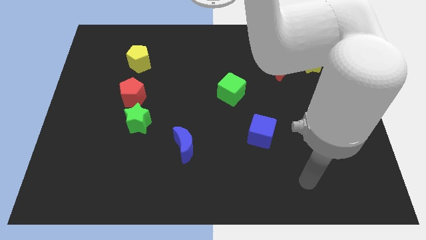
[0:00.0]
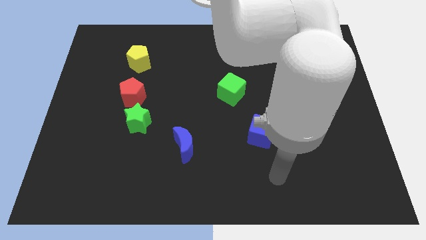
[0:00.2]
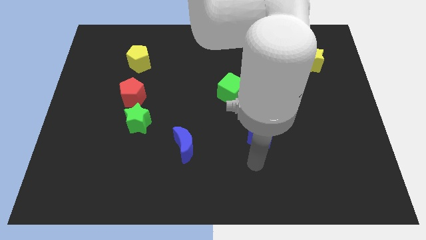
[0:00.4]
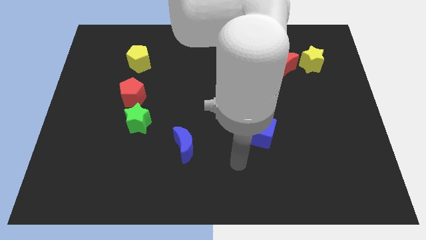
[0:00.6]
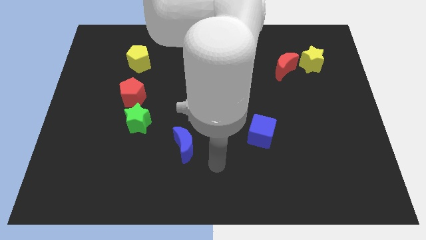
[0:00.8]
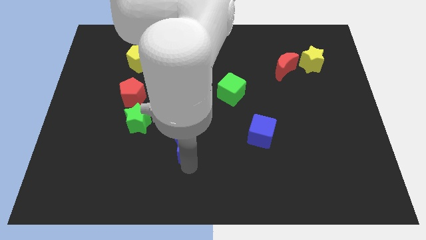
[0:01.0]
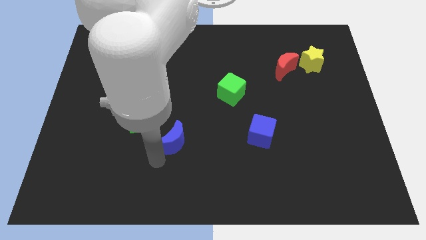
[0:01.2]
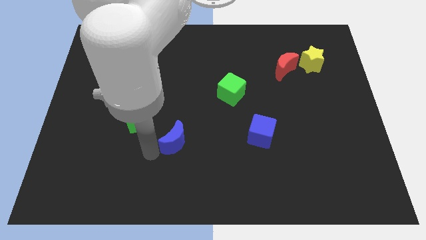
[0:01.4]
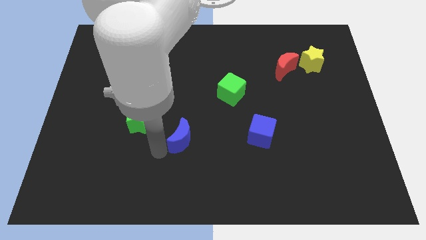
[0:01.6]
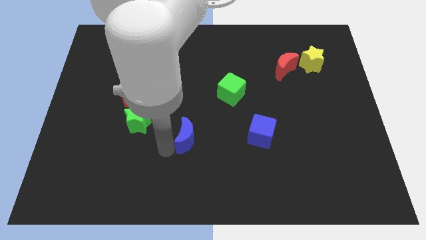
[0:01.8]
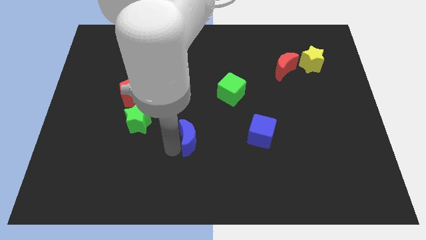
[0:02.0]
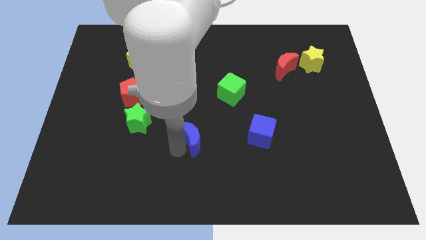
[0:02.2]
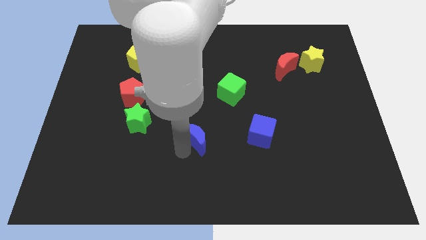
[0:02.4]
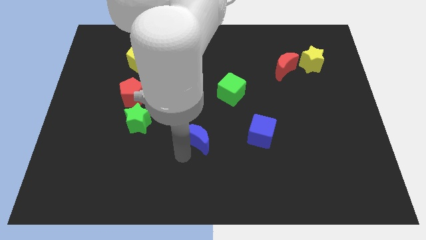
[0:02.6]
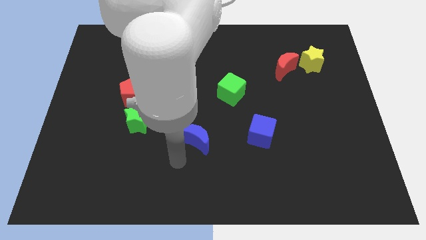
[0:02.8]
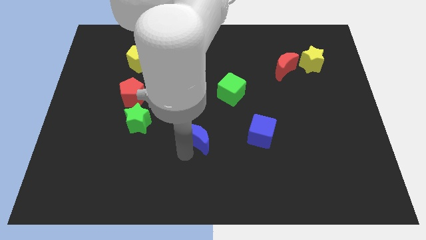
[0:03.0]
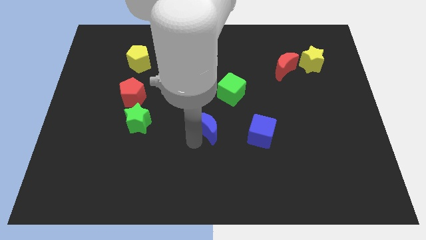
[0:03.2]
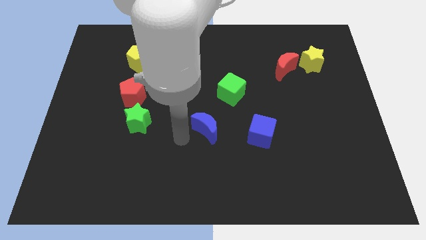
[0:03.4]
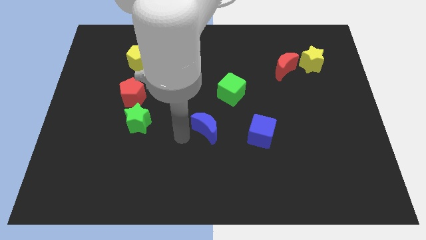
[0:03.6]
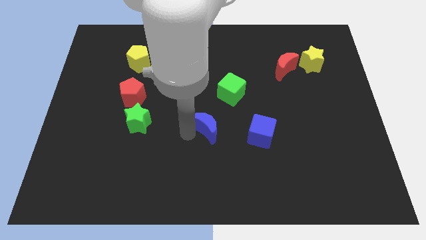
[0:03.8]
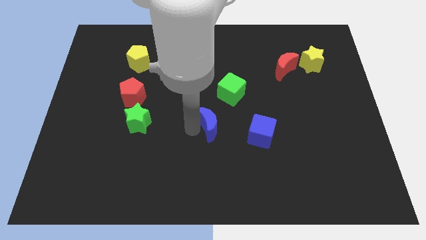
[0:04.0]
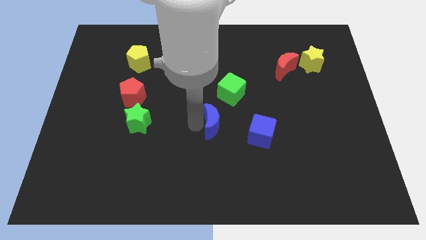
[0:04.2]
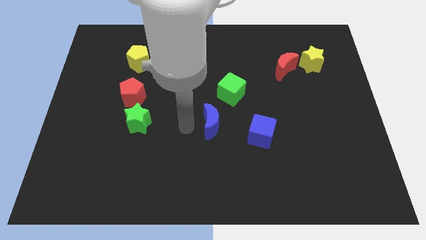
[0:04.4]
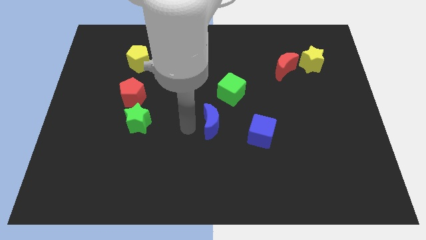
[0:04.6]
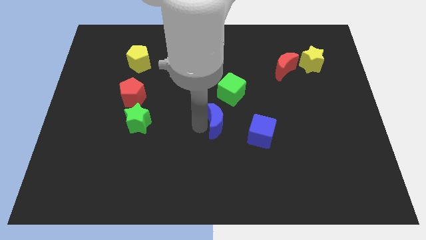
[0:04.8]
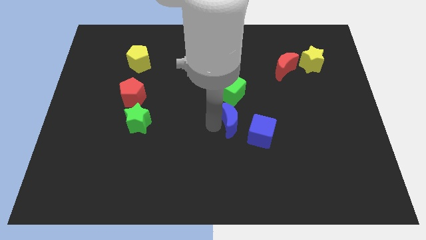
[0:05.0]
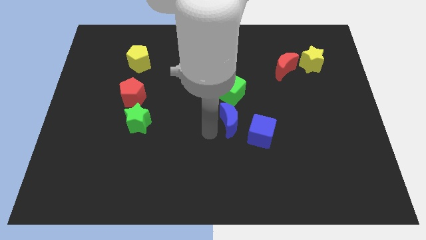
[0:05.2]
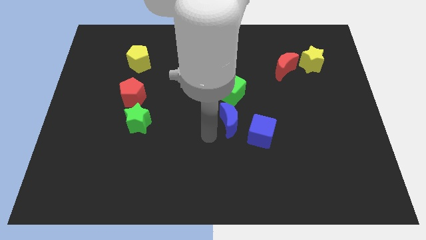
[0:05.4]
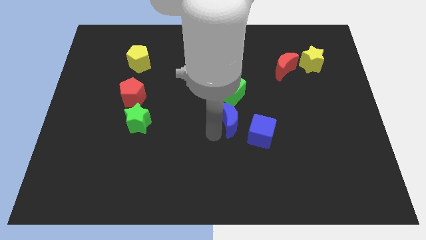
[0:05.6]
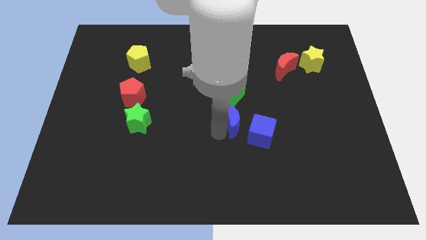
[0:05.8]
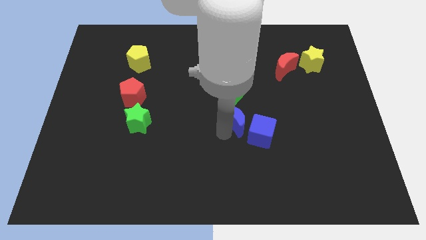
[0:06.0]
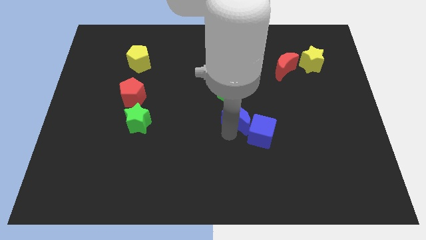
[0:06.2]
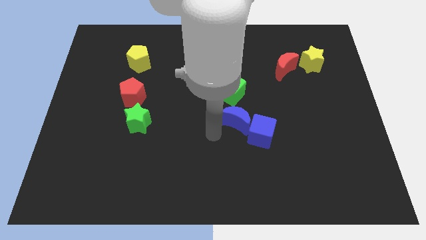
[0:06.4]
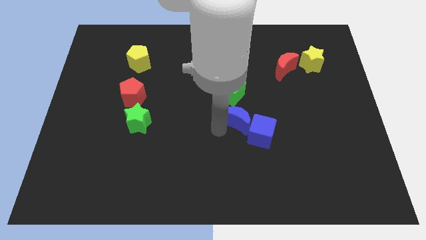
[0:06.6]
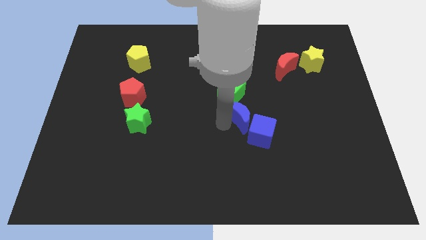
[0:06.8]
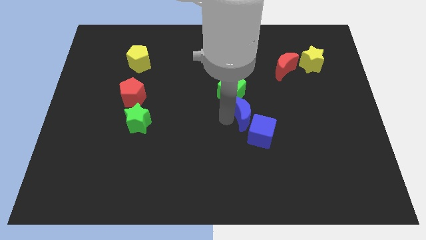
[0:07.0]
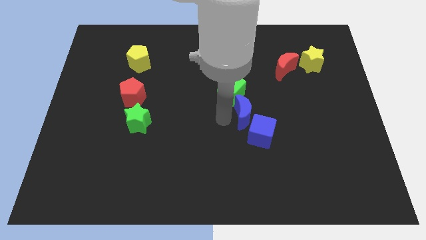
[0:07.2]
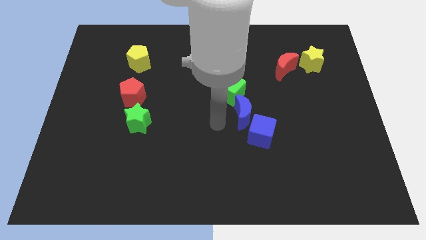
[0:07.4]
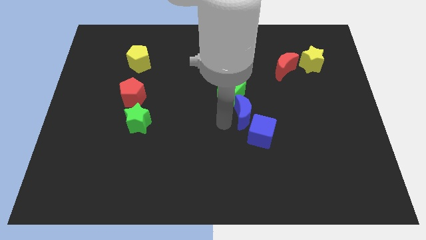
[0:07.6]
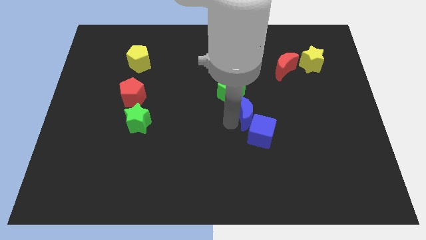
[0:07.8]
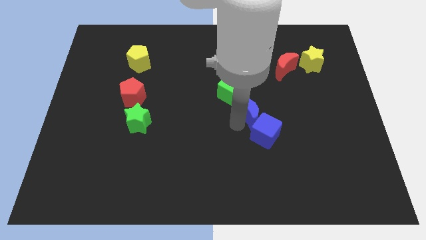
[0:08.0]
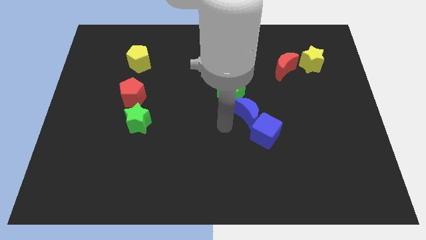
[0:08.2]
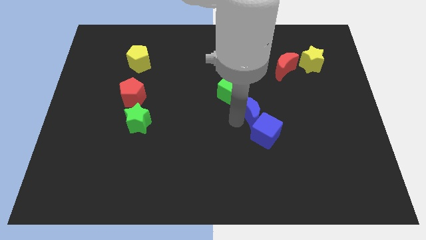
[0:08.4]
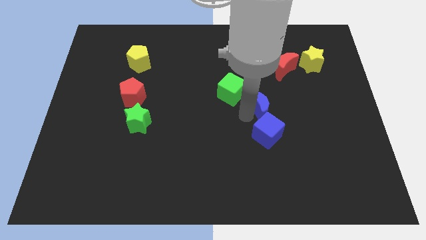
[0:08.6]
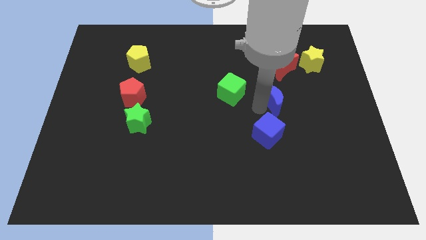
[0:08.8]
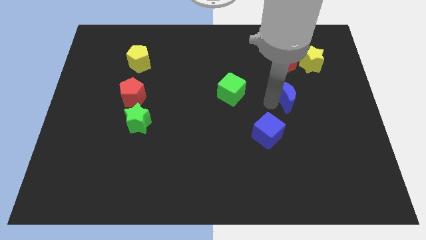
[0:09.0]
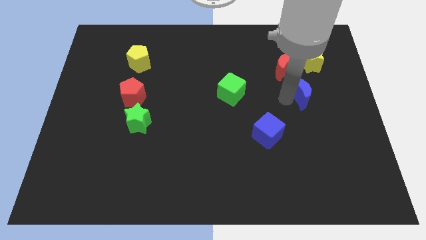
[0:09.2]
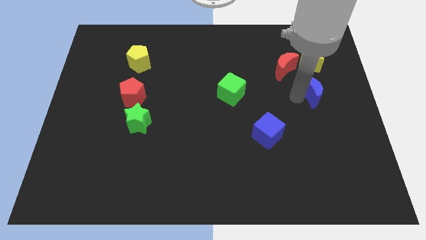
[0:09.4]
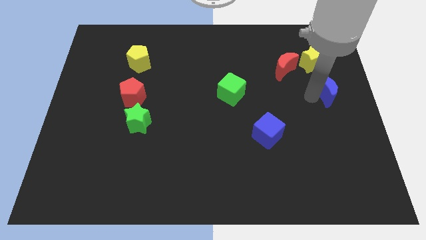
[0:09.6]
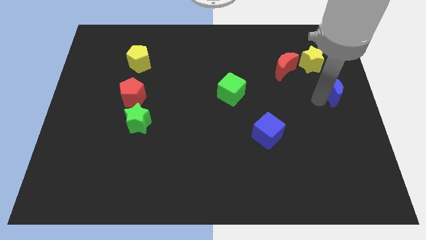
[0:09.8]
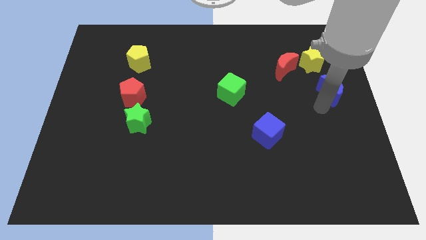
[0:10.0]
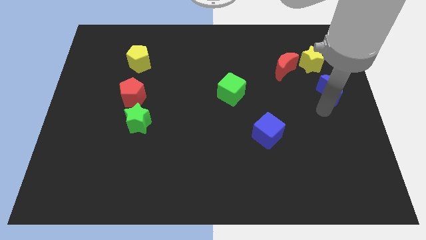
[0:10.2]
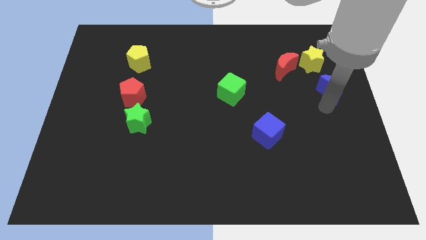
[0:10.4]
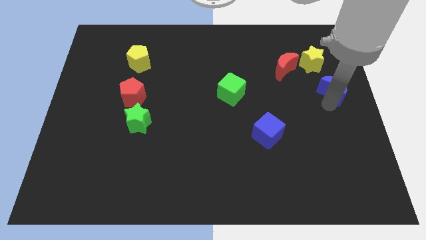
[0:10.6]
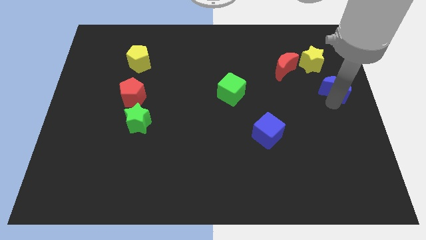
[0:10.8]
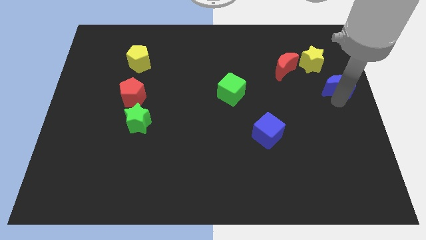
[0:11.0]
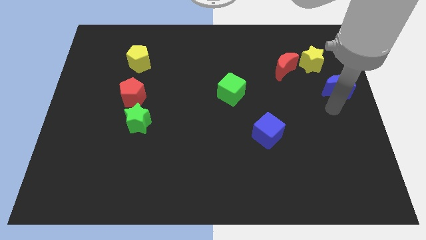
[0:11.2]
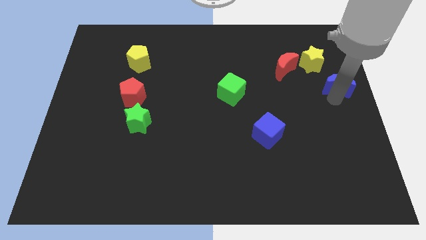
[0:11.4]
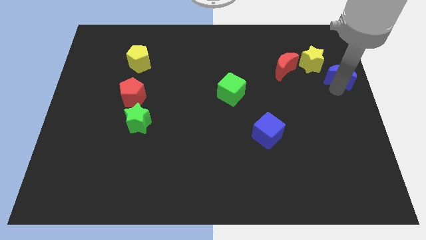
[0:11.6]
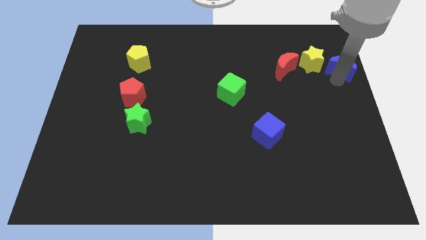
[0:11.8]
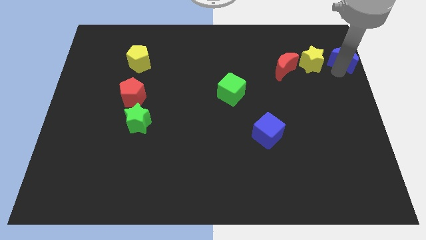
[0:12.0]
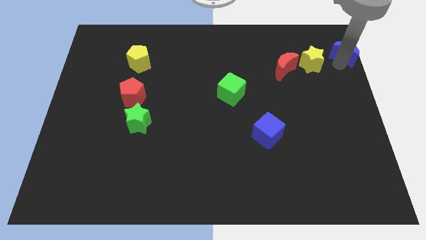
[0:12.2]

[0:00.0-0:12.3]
move the blue moon to the top right corner
